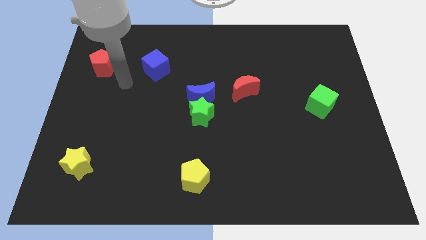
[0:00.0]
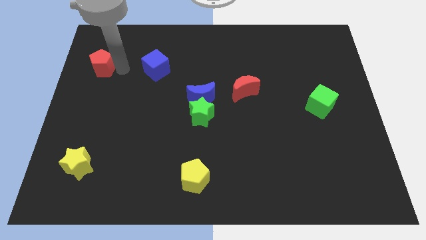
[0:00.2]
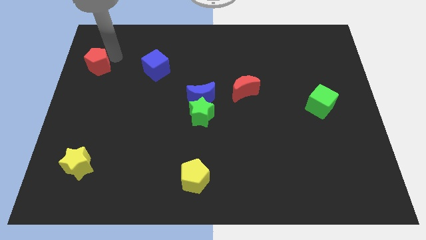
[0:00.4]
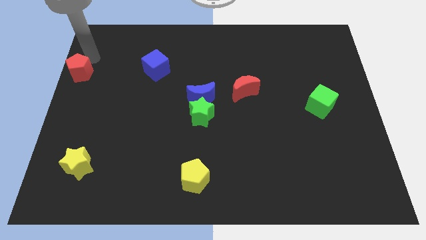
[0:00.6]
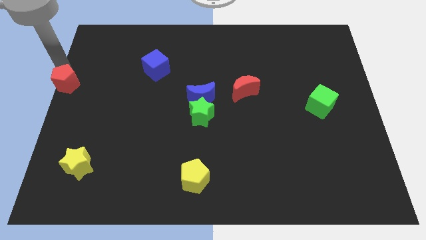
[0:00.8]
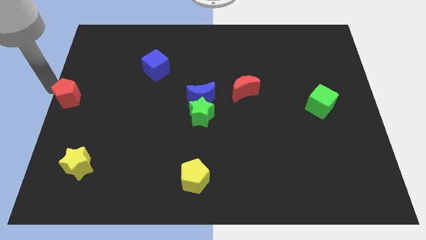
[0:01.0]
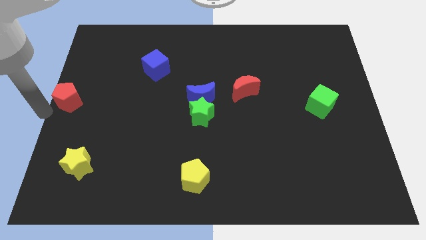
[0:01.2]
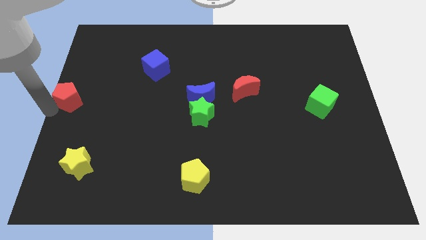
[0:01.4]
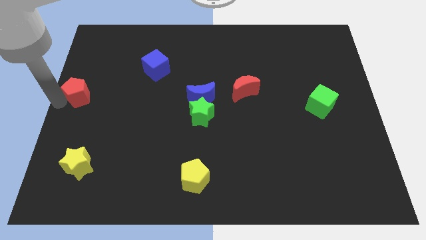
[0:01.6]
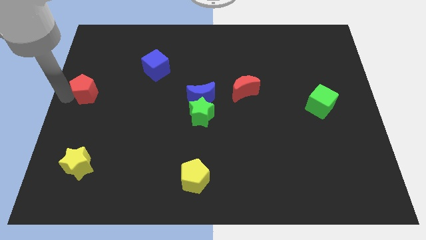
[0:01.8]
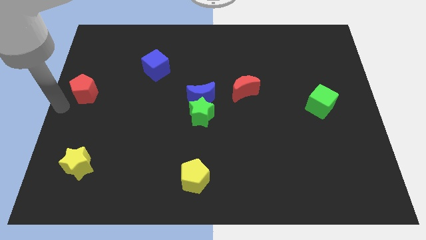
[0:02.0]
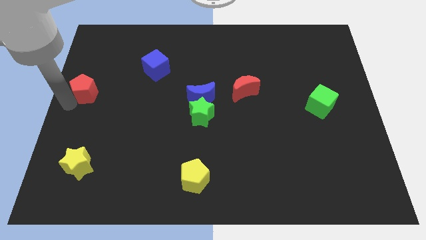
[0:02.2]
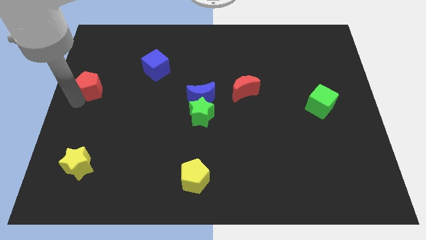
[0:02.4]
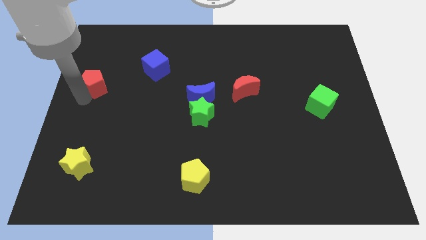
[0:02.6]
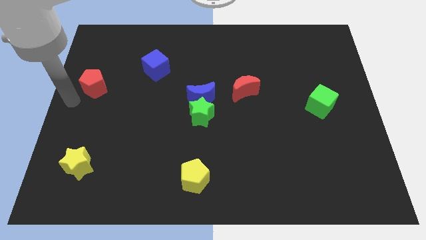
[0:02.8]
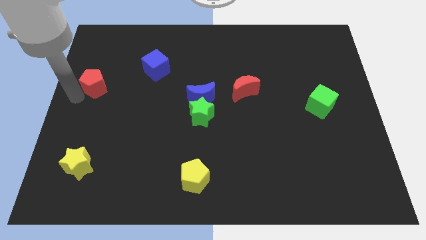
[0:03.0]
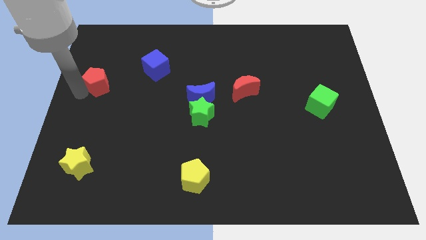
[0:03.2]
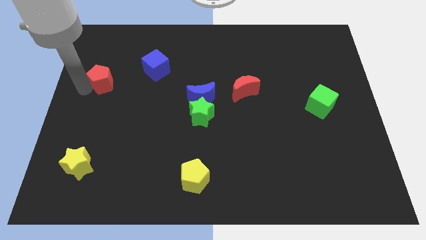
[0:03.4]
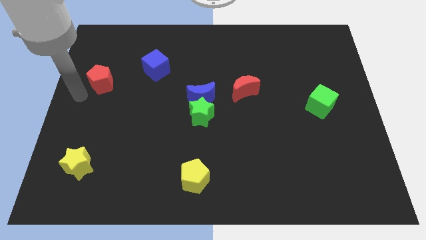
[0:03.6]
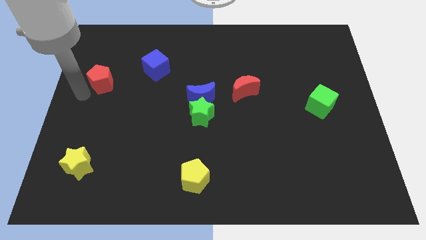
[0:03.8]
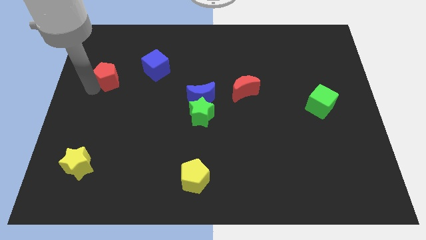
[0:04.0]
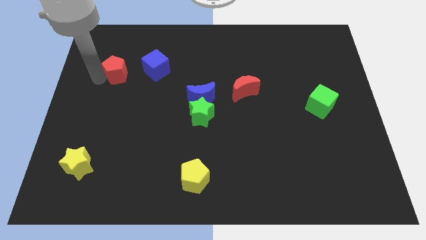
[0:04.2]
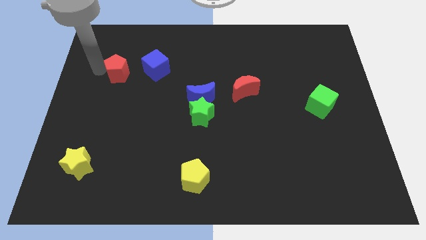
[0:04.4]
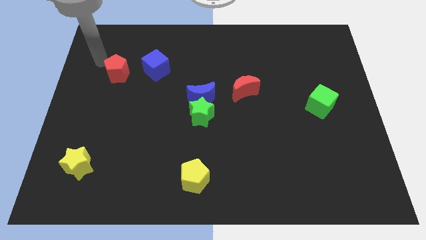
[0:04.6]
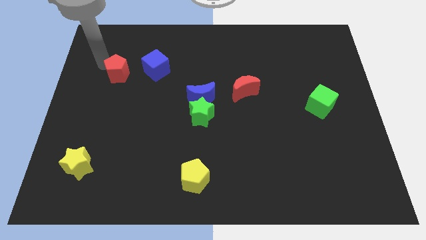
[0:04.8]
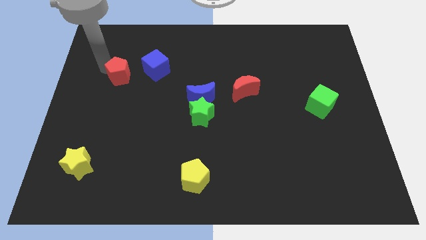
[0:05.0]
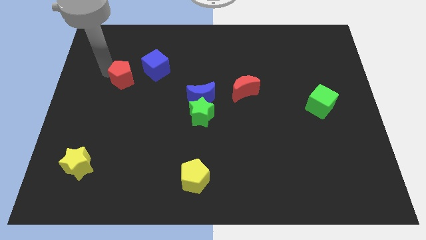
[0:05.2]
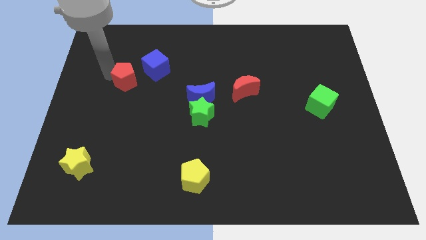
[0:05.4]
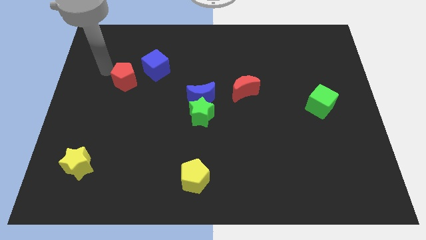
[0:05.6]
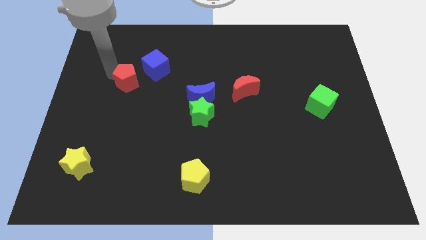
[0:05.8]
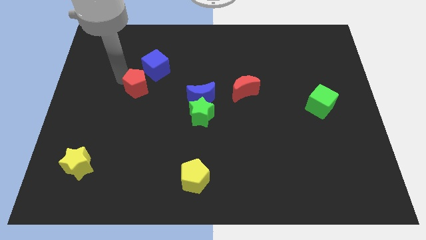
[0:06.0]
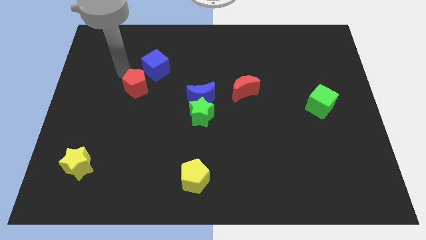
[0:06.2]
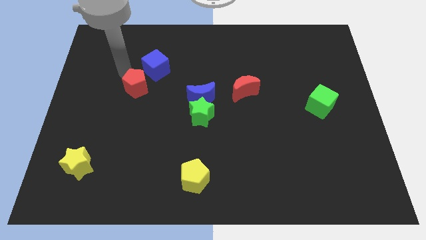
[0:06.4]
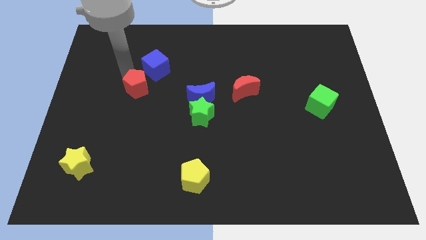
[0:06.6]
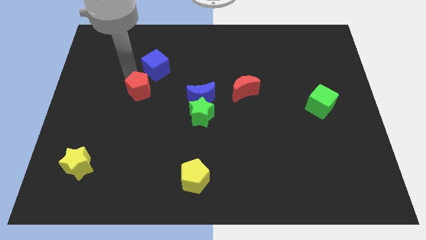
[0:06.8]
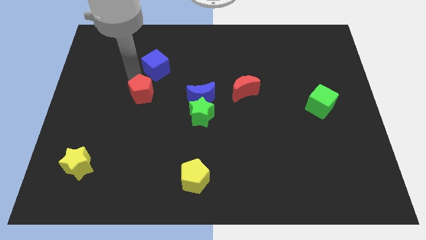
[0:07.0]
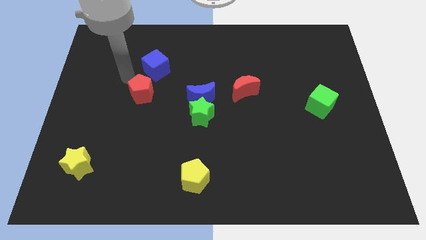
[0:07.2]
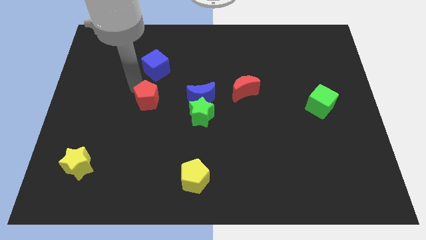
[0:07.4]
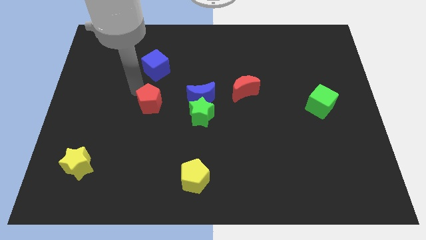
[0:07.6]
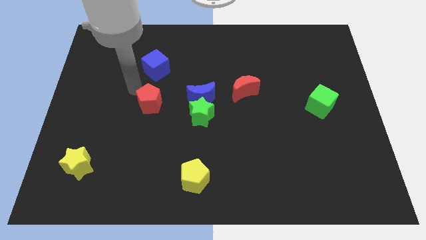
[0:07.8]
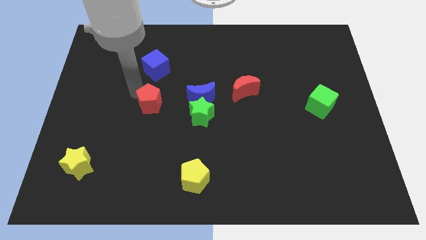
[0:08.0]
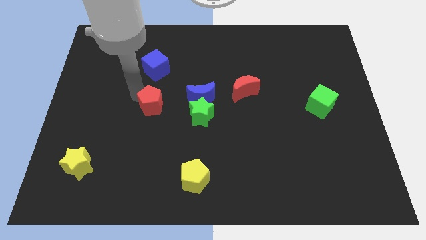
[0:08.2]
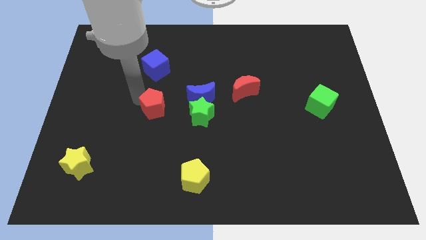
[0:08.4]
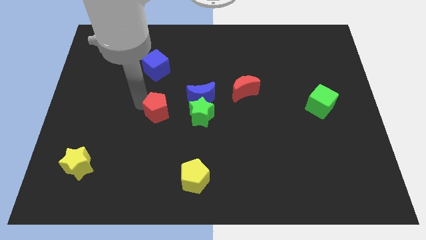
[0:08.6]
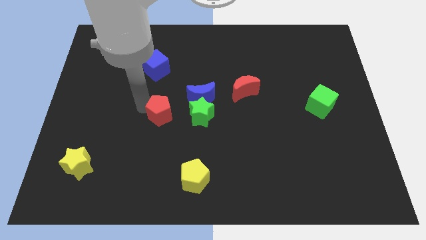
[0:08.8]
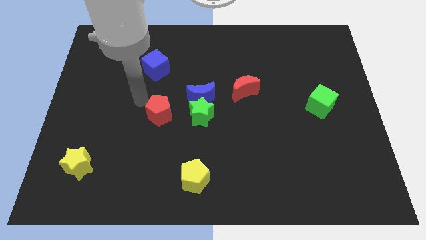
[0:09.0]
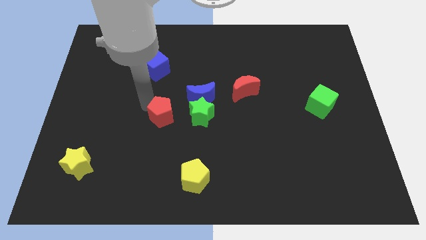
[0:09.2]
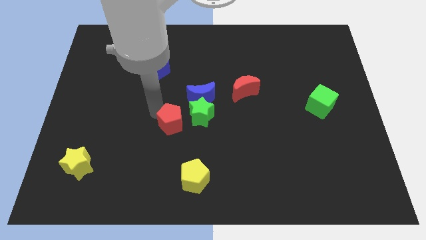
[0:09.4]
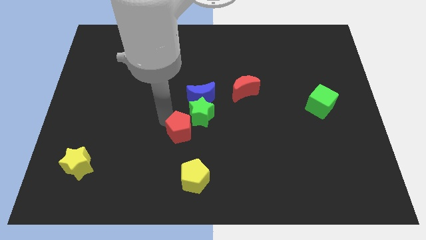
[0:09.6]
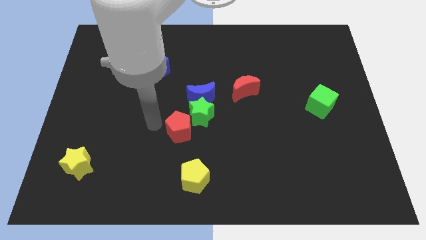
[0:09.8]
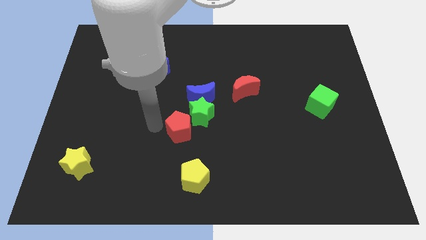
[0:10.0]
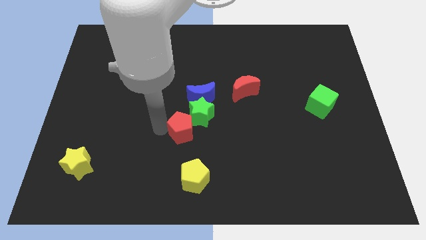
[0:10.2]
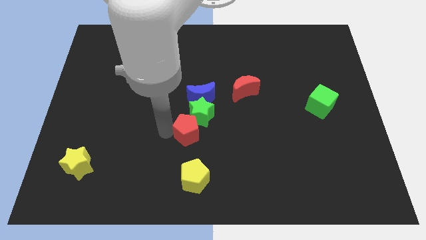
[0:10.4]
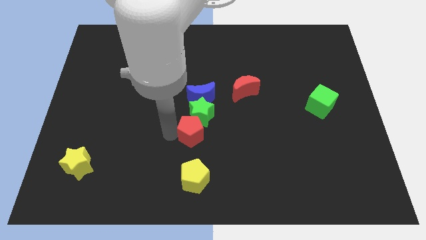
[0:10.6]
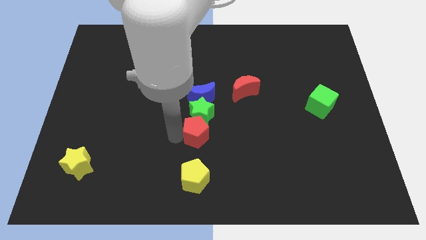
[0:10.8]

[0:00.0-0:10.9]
push the red pentagon to the bottom right of the green star

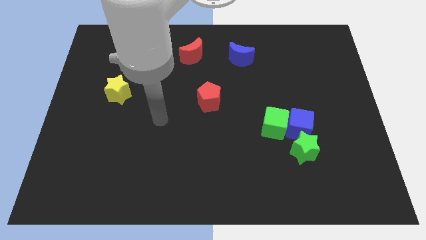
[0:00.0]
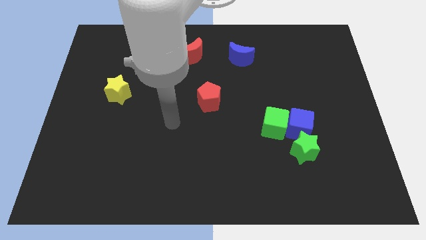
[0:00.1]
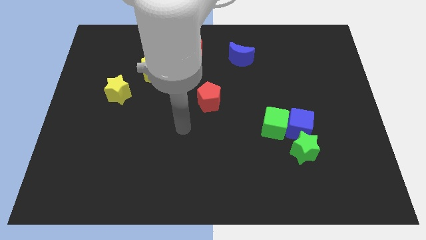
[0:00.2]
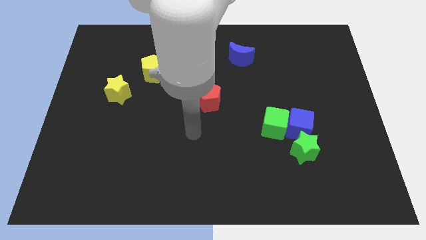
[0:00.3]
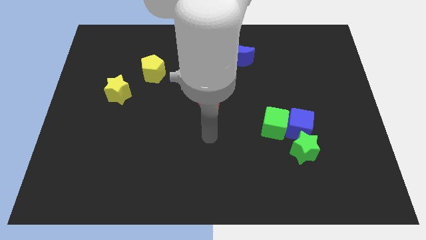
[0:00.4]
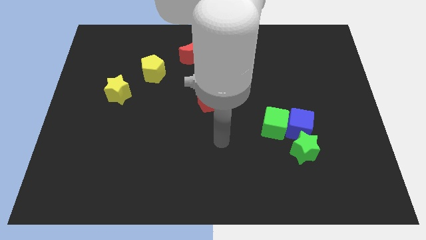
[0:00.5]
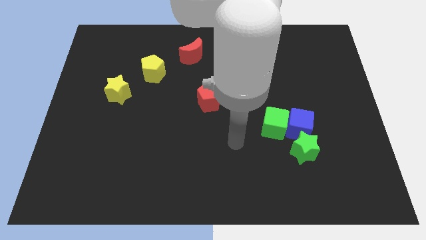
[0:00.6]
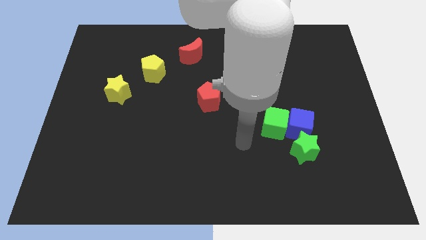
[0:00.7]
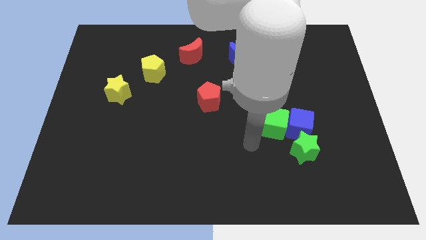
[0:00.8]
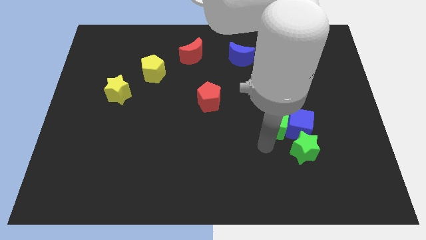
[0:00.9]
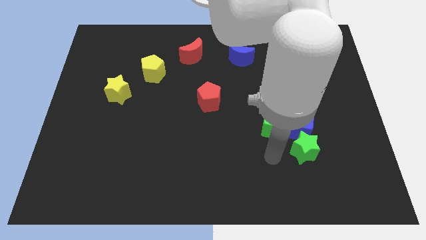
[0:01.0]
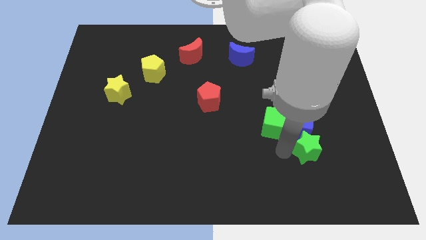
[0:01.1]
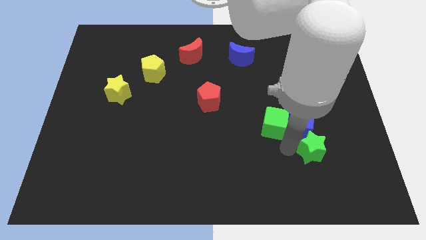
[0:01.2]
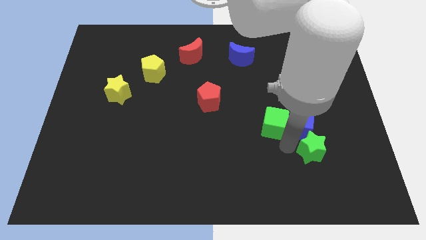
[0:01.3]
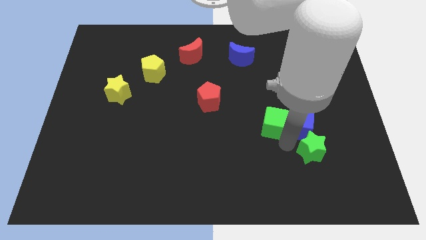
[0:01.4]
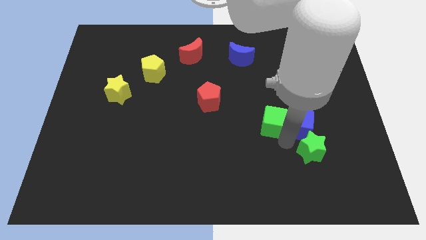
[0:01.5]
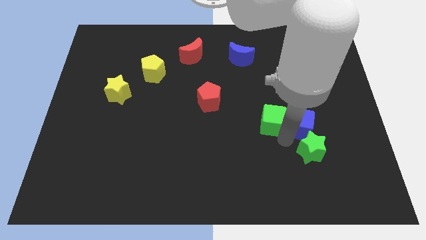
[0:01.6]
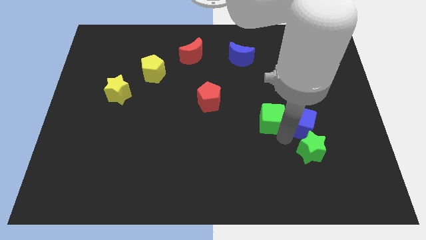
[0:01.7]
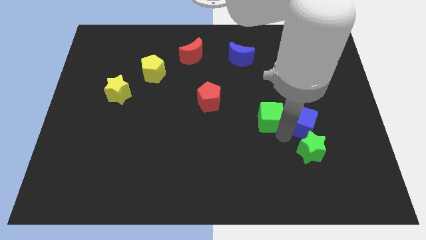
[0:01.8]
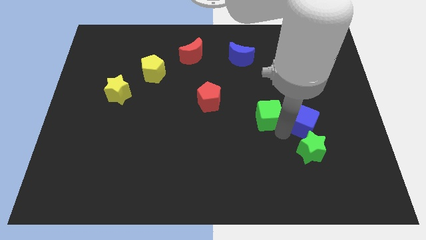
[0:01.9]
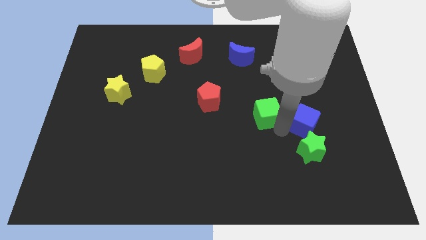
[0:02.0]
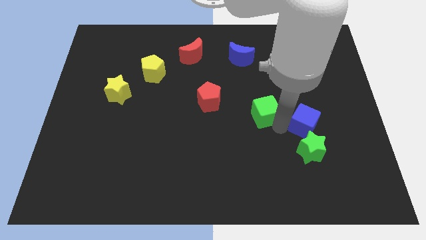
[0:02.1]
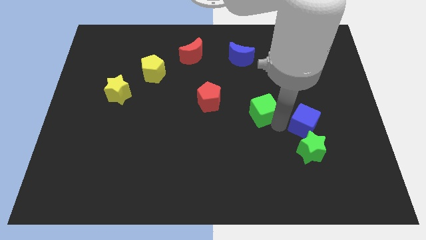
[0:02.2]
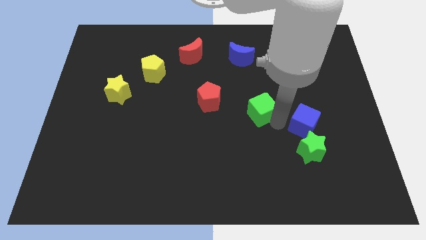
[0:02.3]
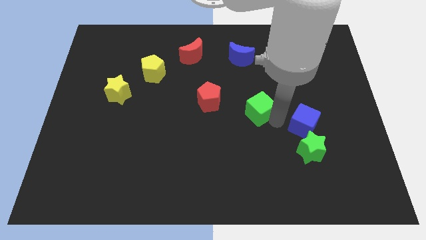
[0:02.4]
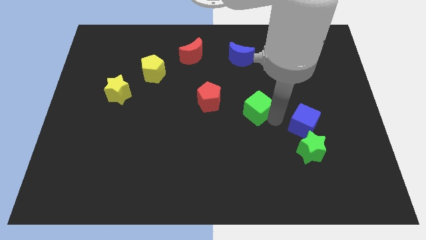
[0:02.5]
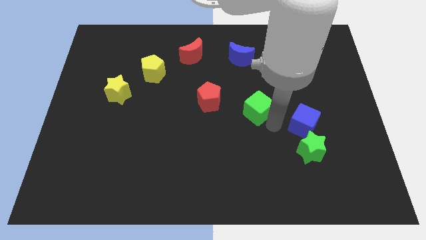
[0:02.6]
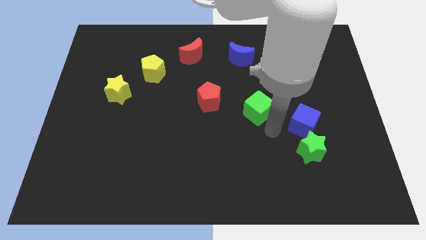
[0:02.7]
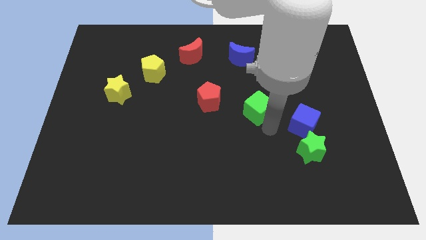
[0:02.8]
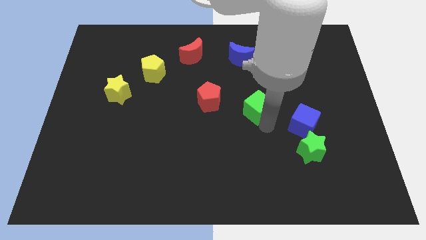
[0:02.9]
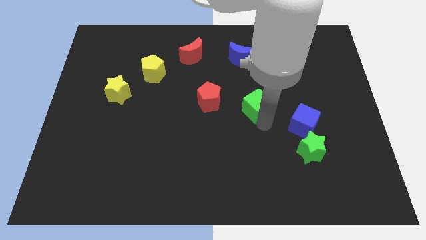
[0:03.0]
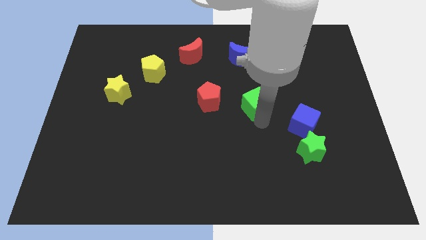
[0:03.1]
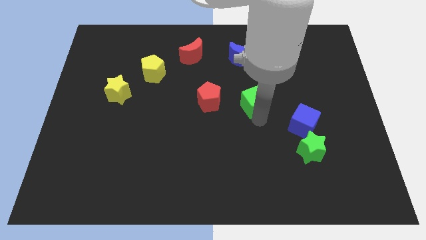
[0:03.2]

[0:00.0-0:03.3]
put the green cube to the bottom side of the blue moon
